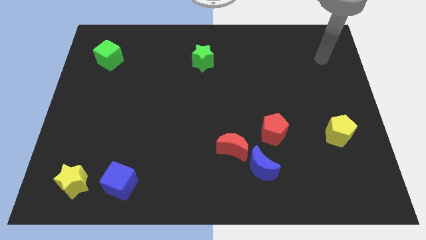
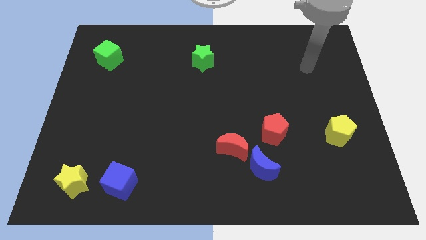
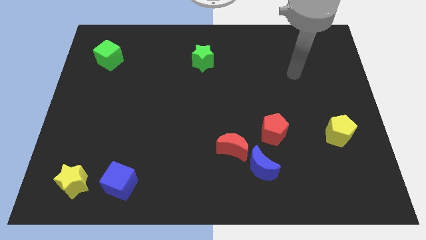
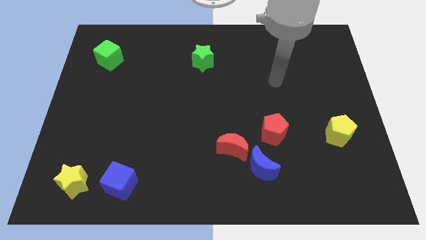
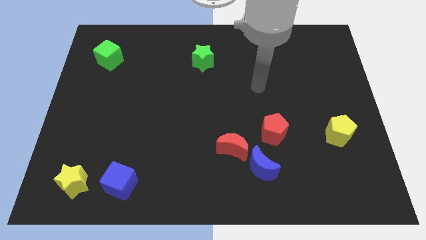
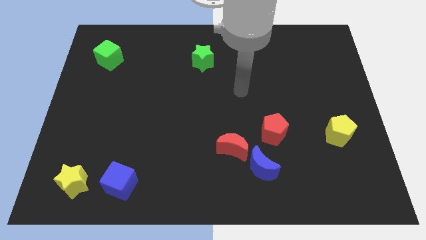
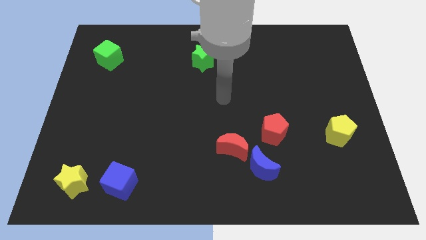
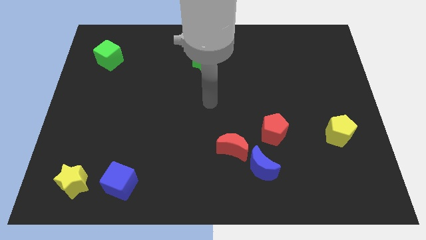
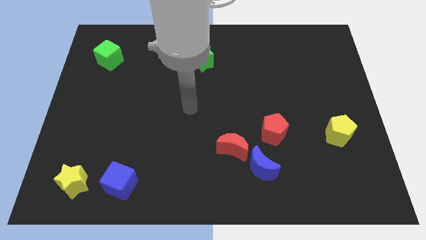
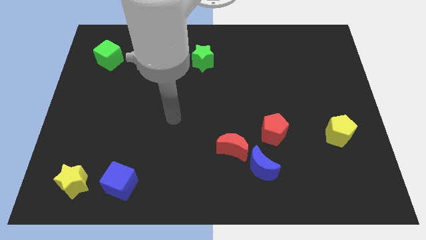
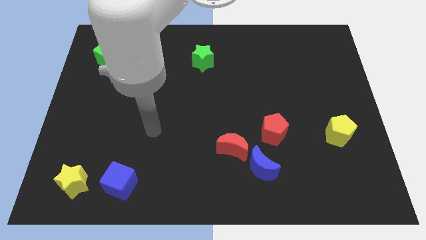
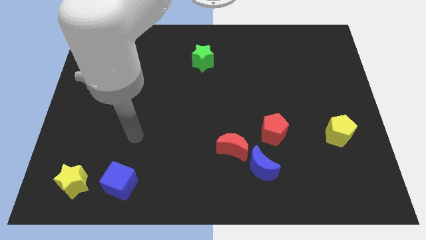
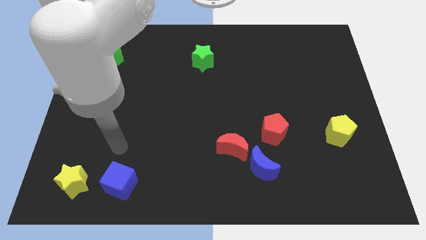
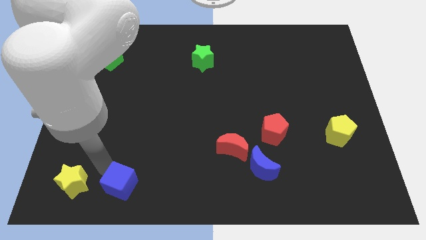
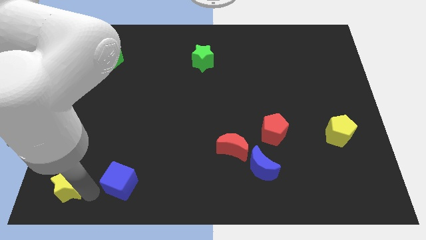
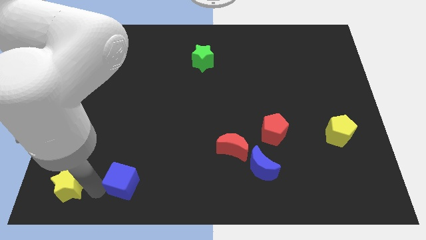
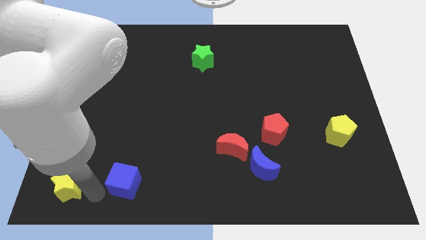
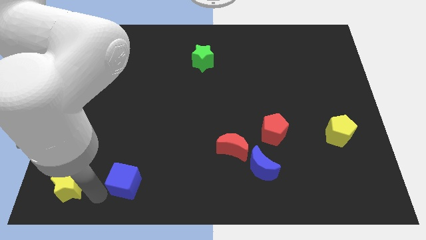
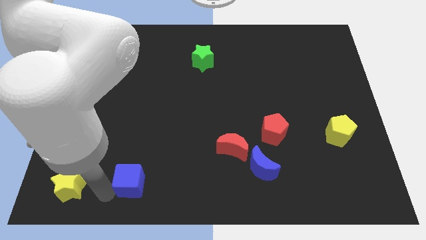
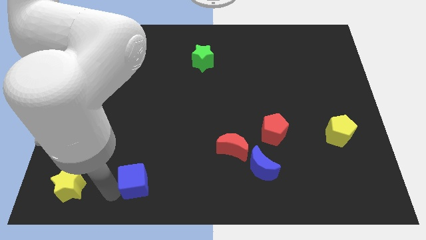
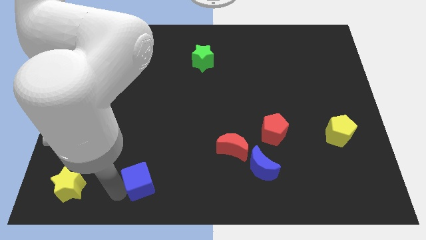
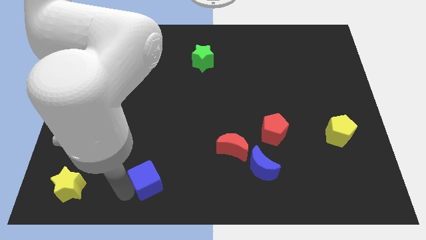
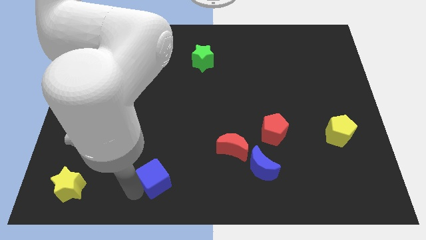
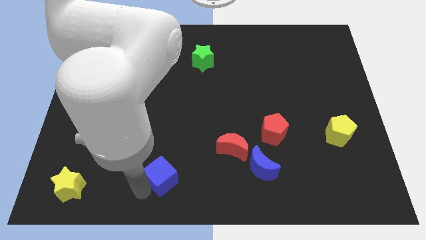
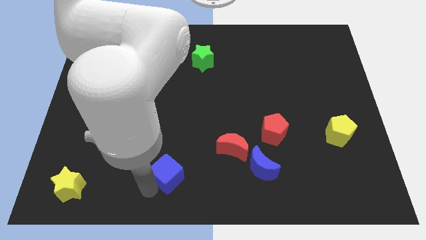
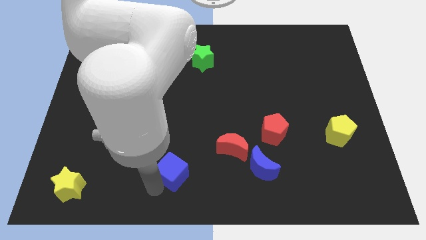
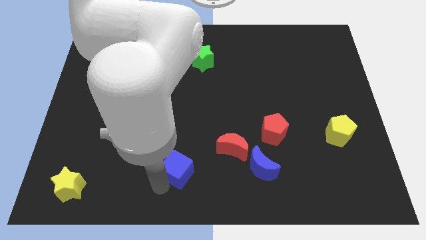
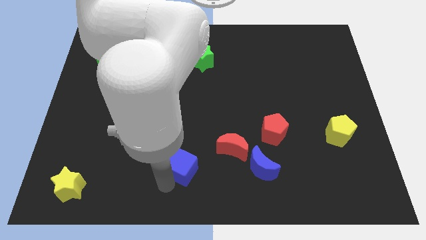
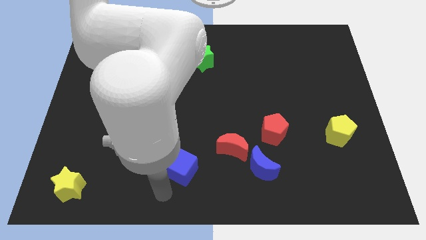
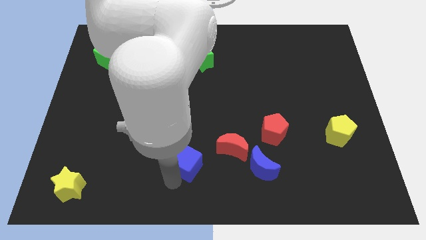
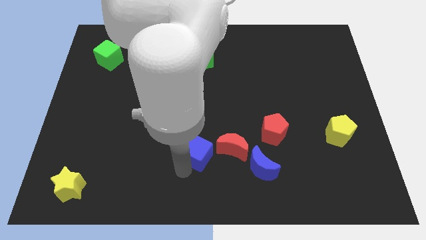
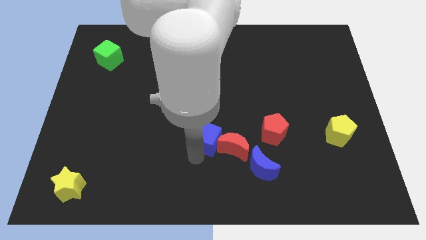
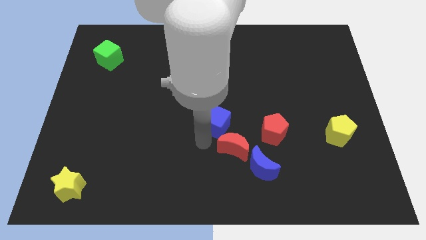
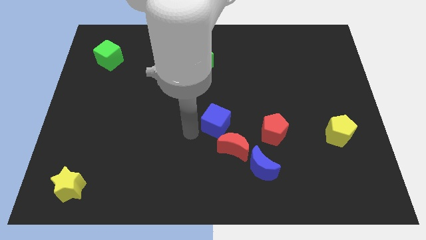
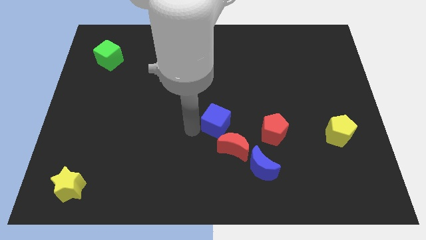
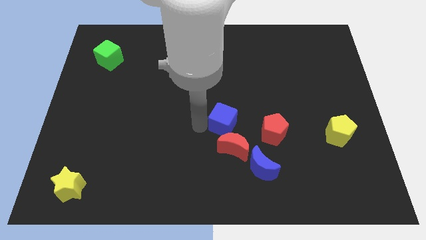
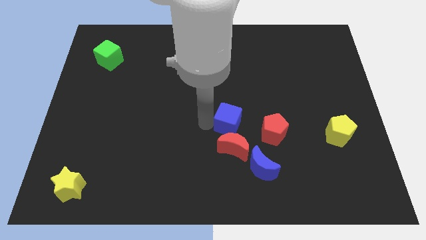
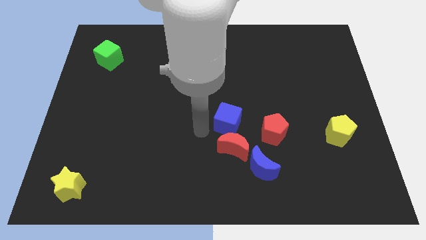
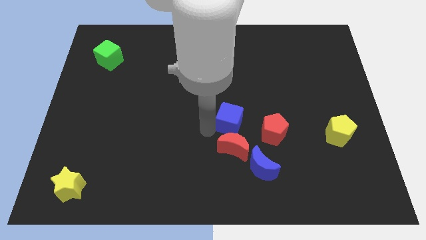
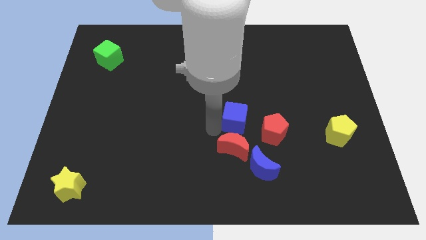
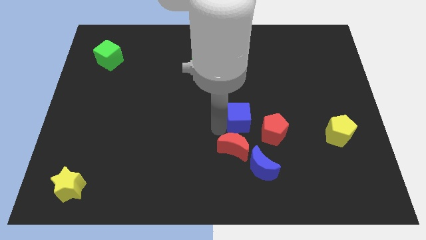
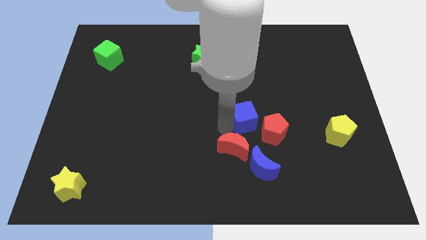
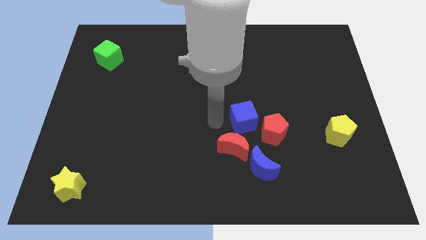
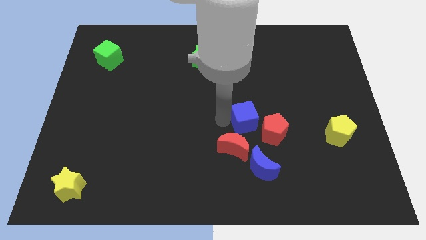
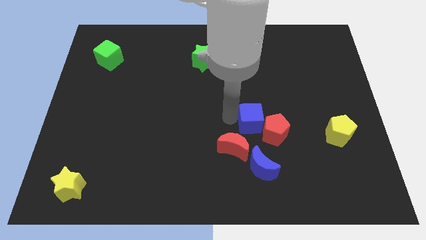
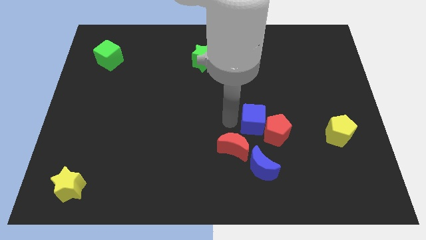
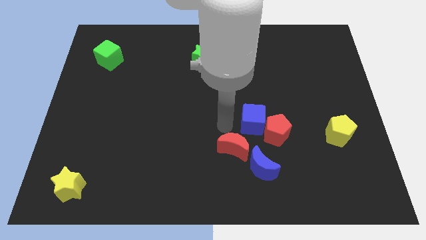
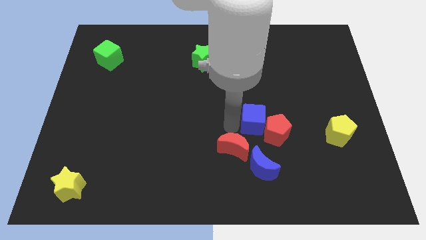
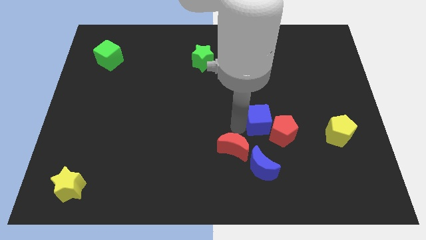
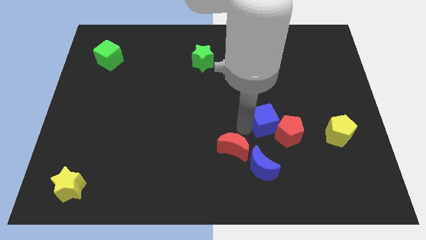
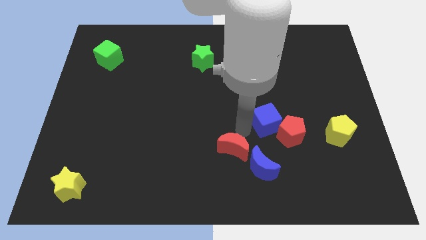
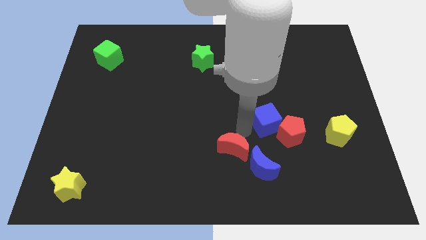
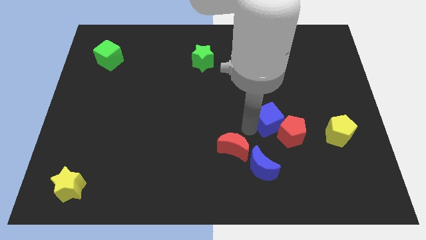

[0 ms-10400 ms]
move the blue cube just left of the yellow pentagon

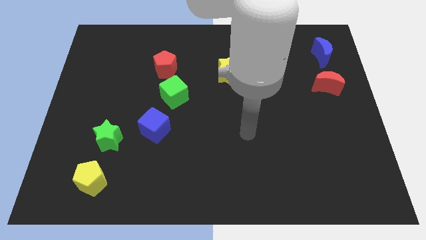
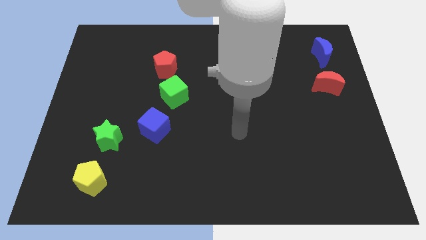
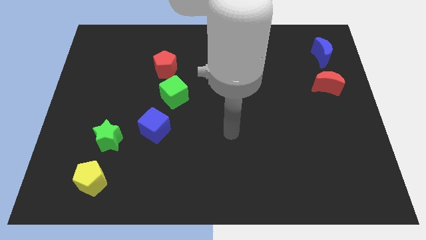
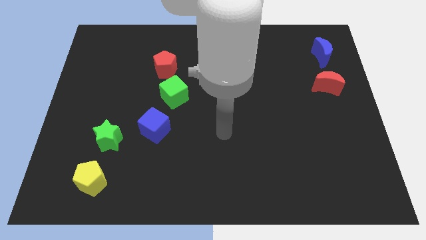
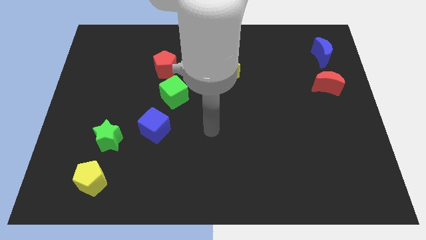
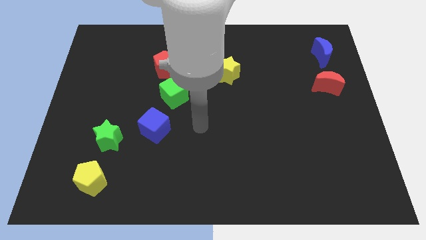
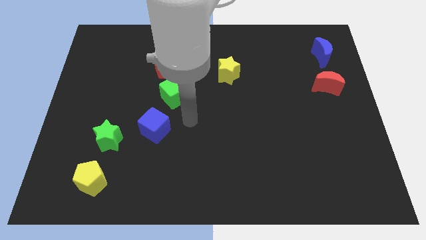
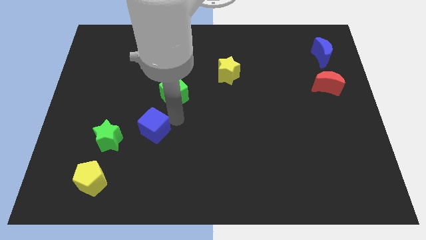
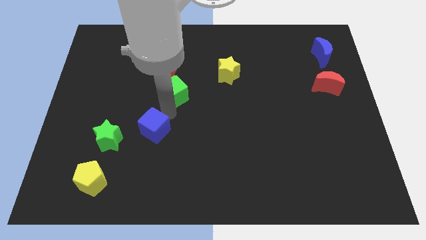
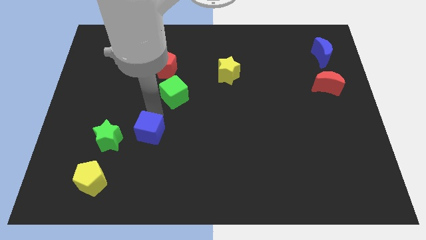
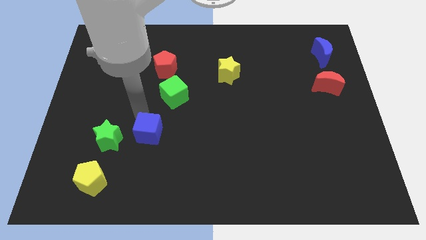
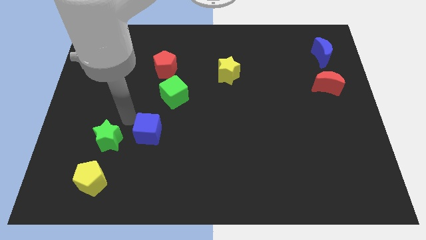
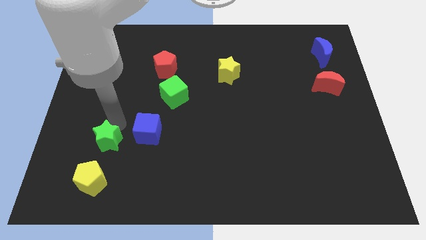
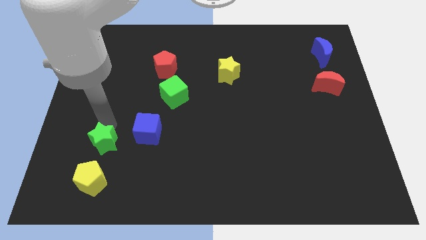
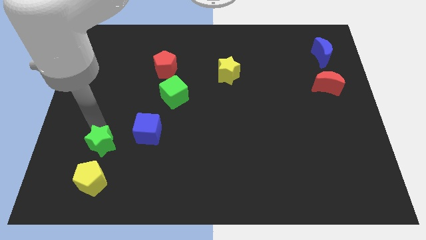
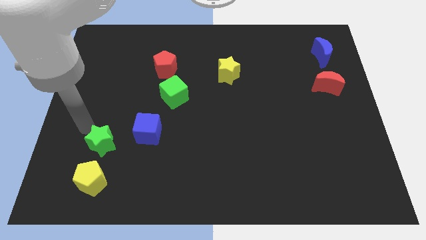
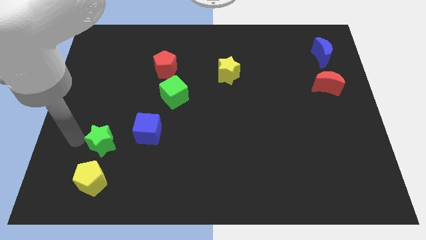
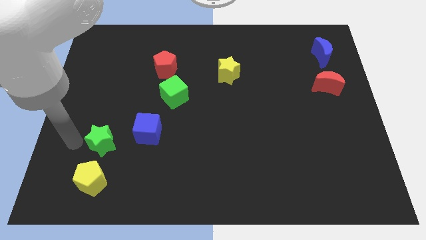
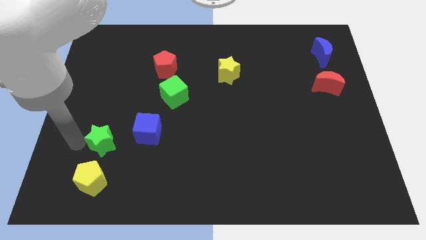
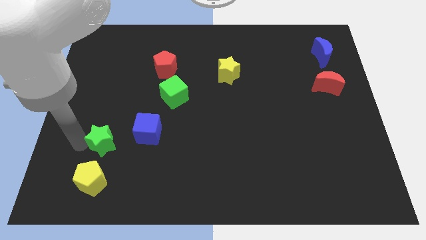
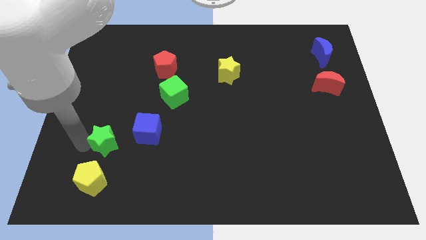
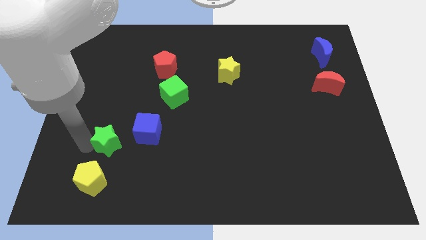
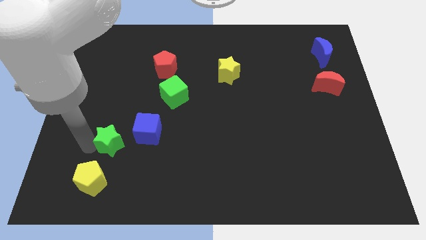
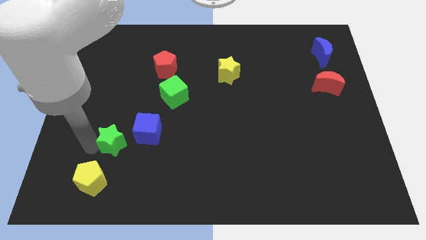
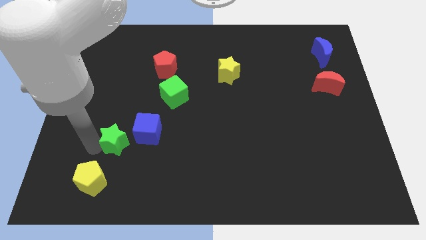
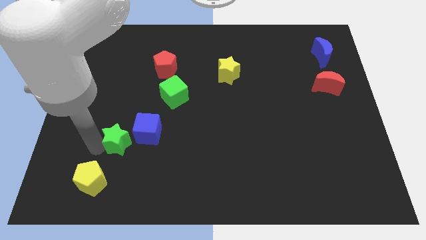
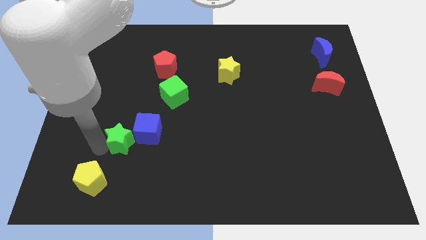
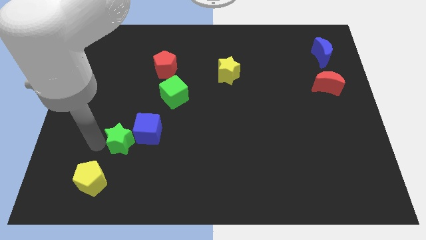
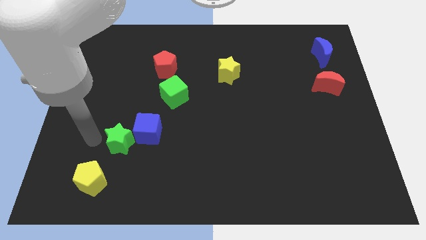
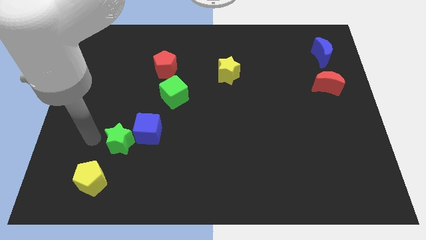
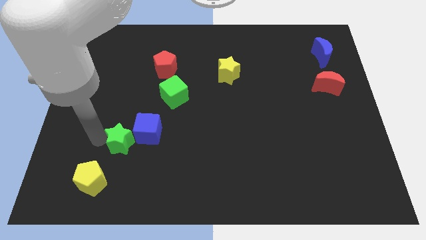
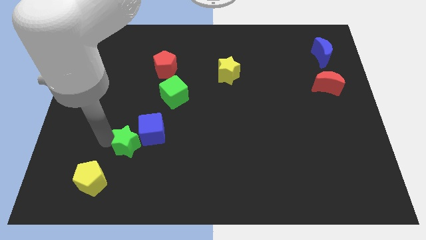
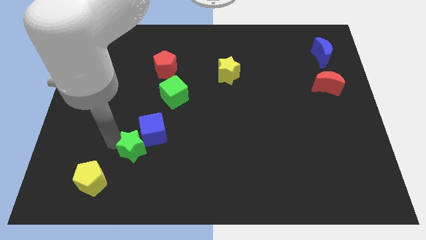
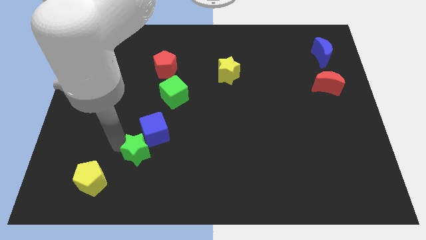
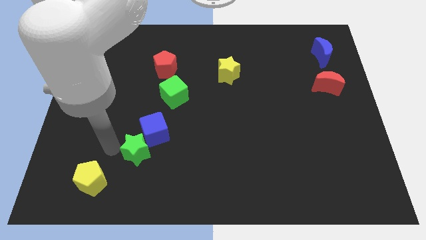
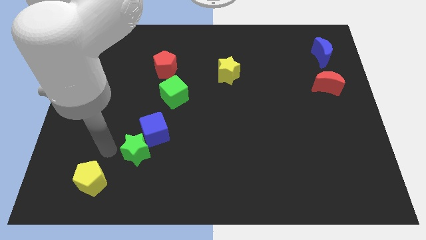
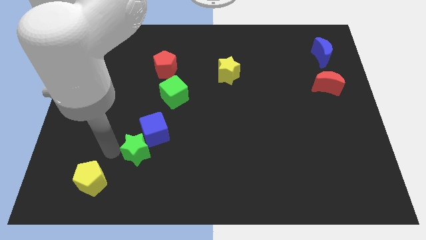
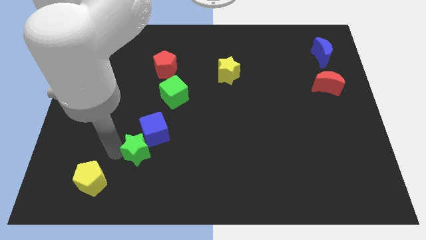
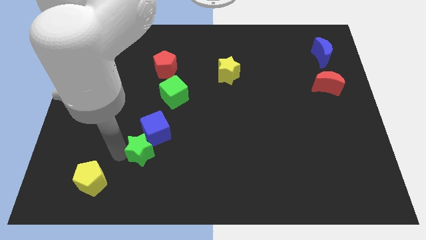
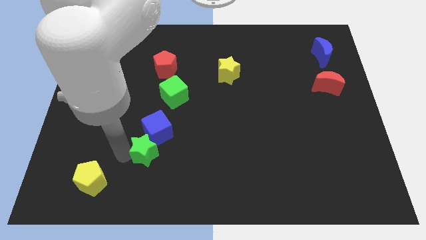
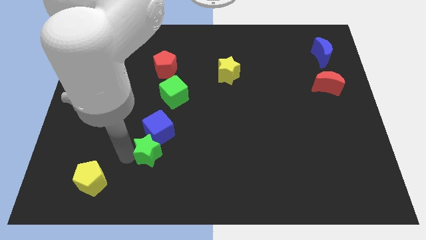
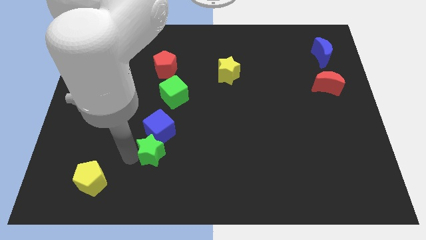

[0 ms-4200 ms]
move the green star diagonally down and to the right of the blue cube
